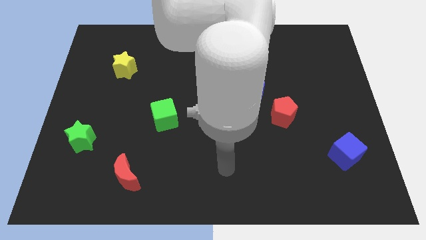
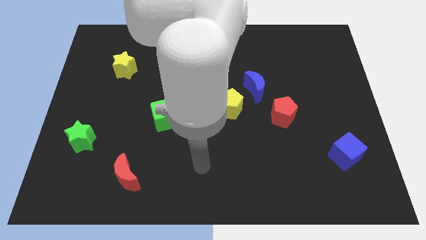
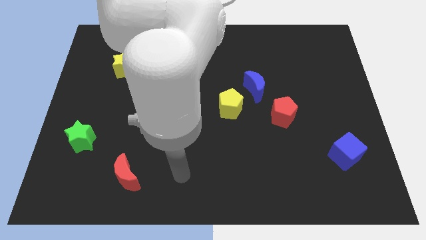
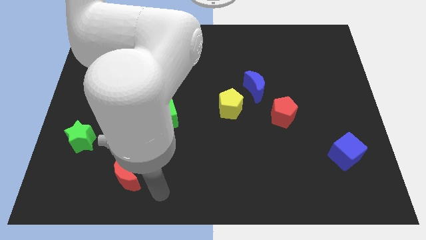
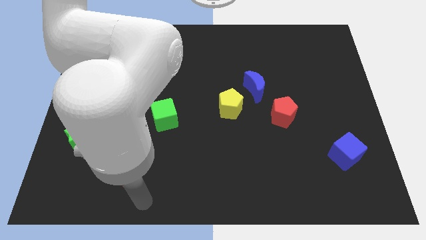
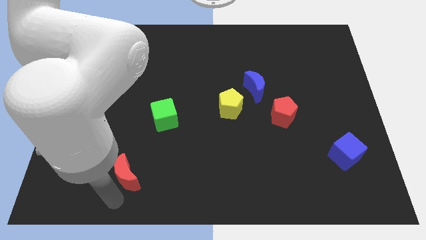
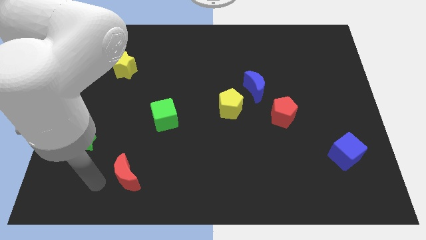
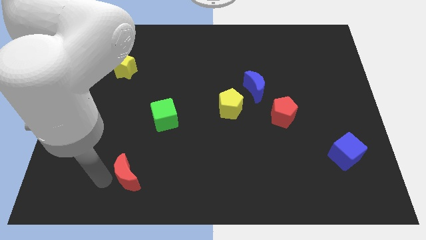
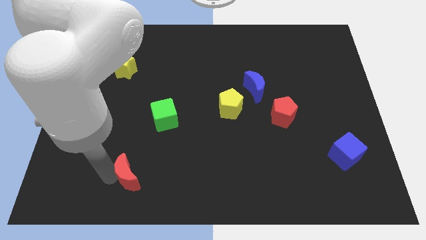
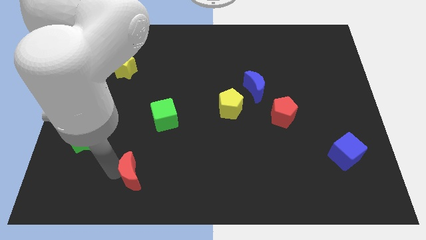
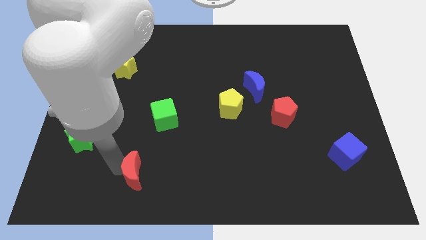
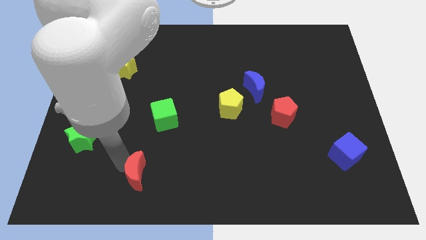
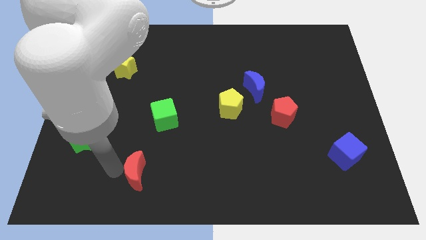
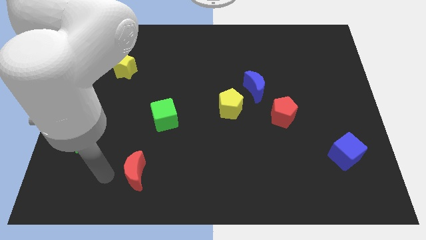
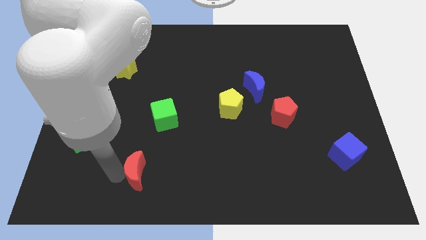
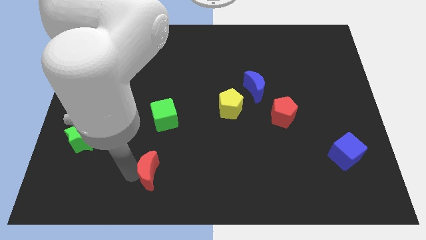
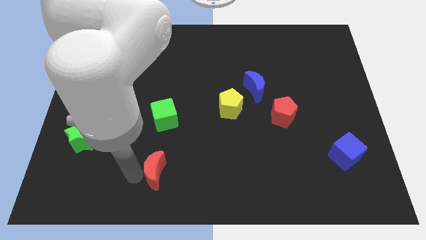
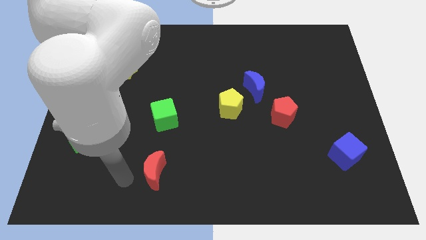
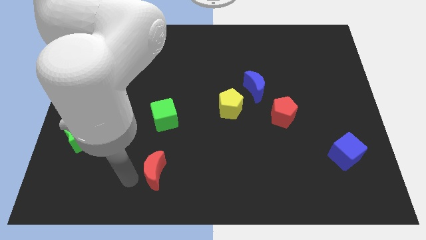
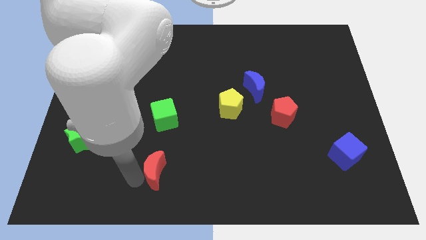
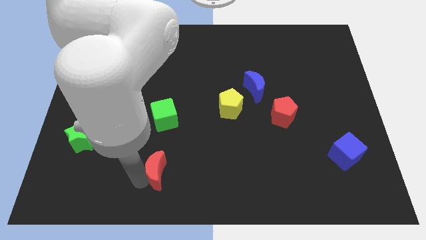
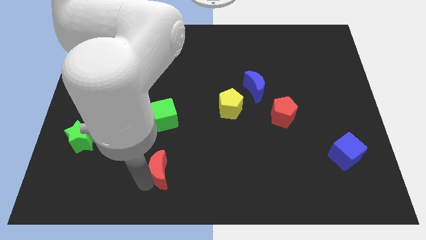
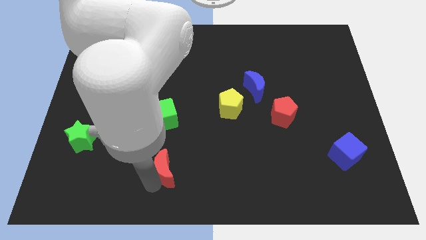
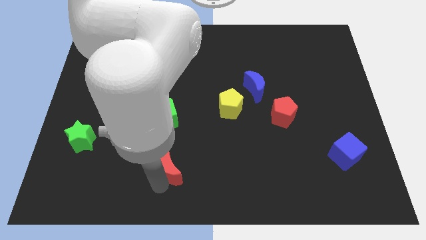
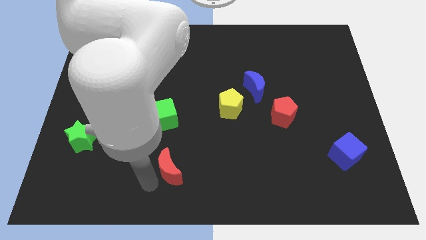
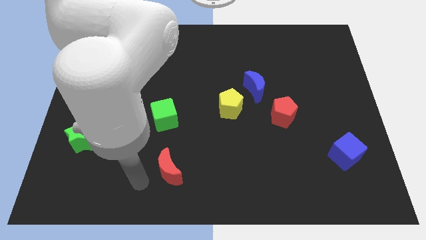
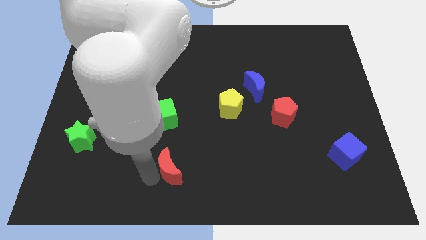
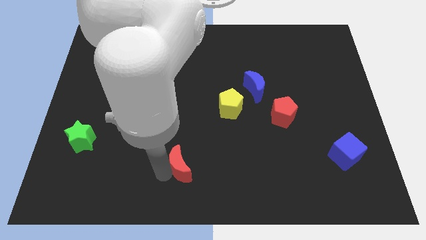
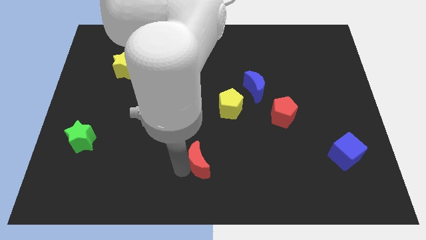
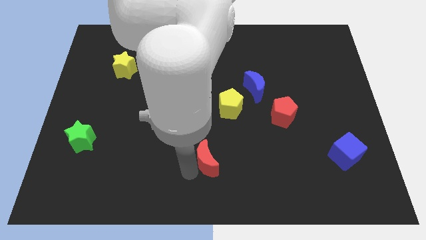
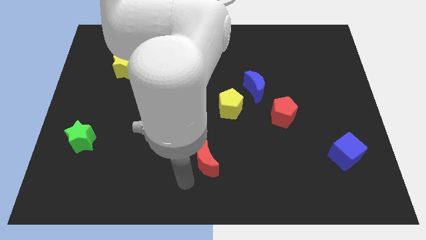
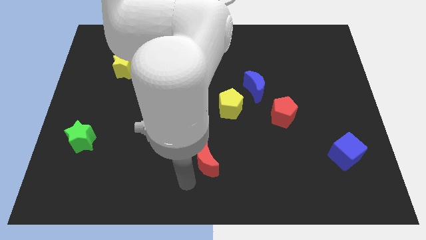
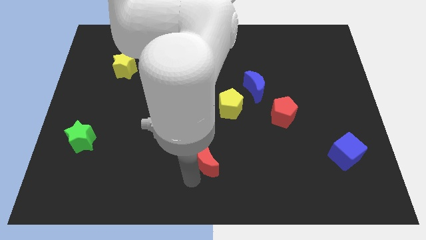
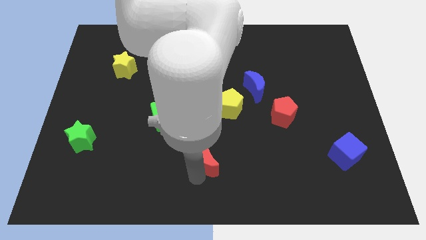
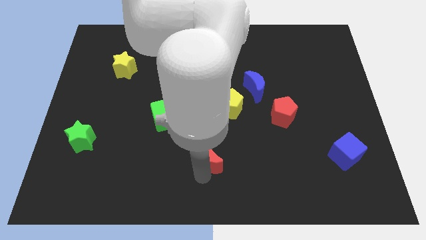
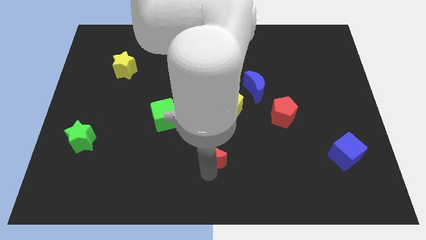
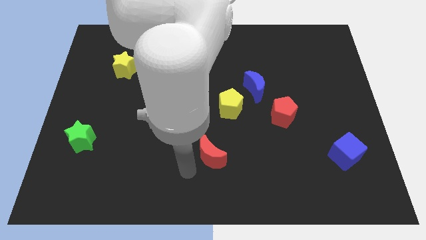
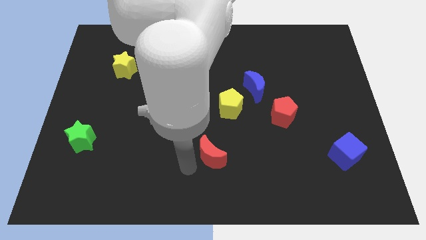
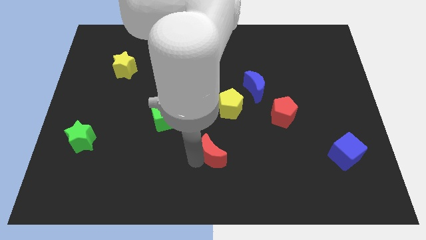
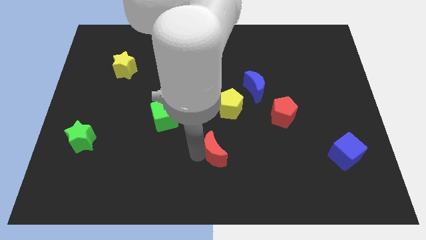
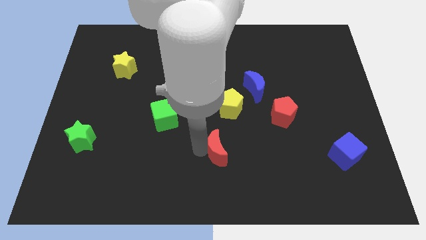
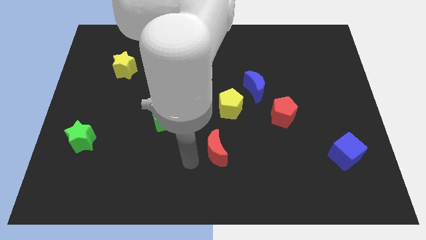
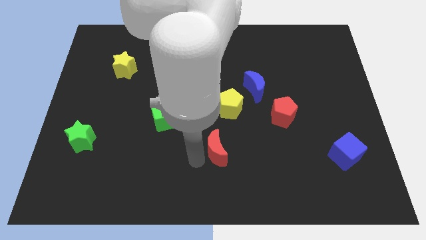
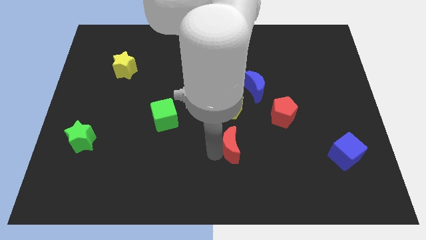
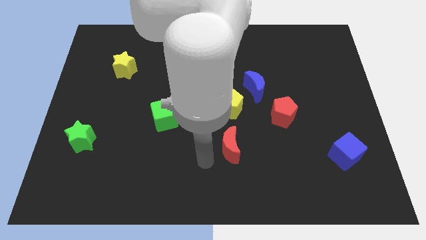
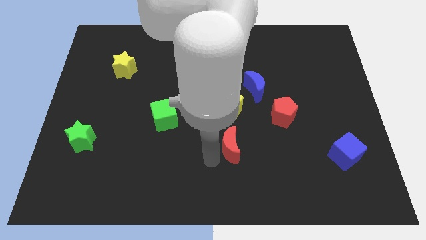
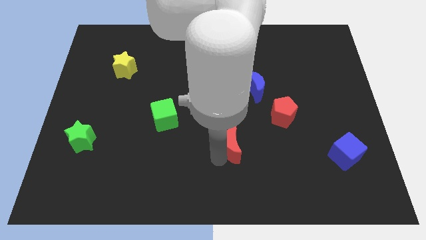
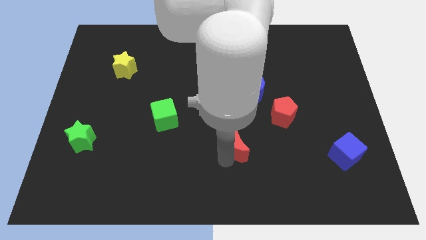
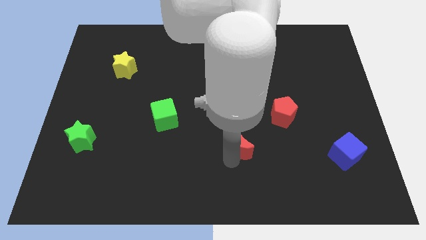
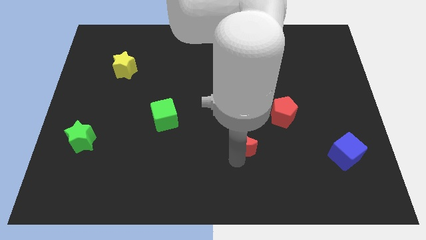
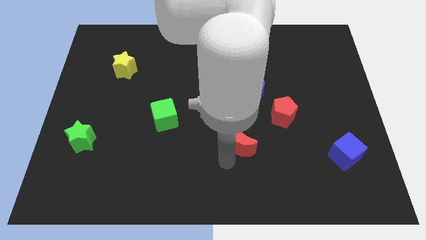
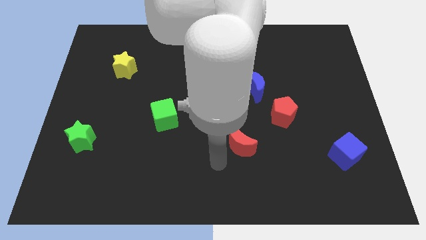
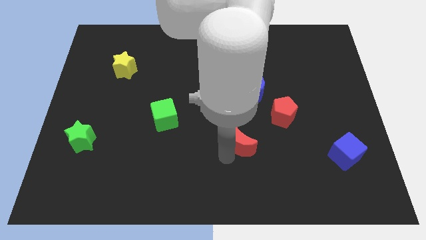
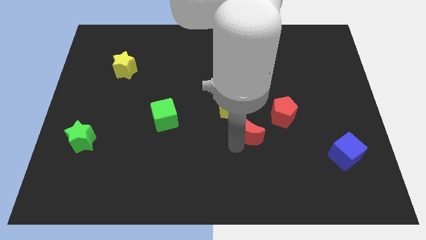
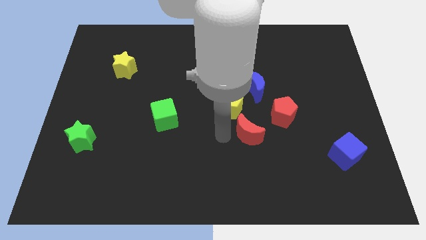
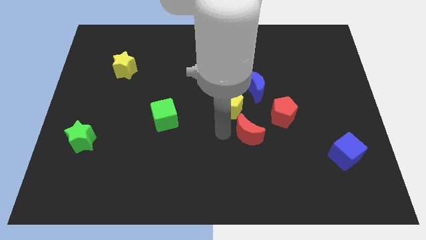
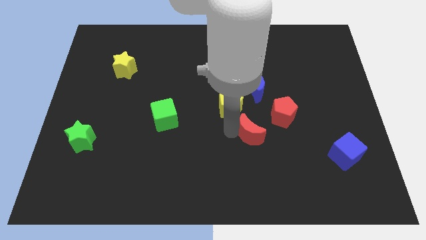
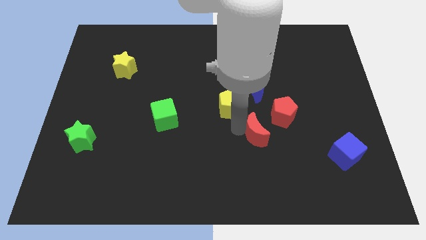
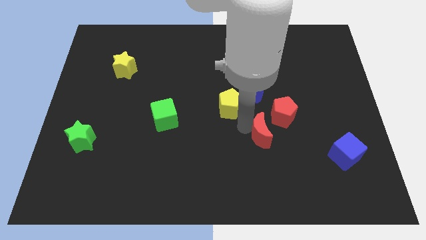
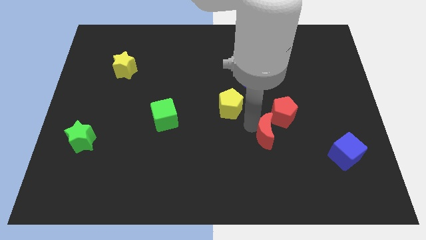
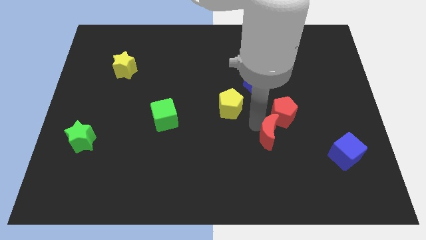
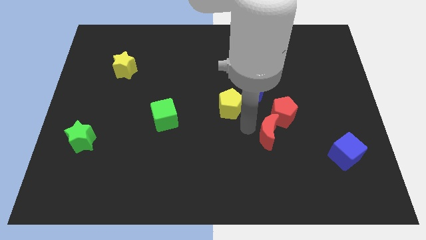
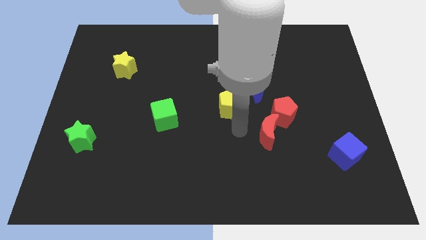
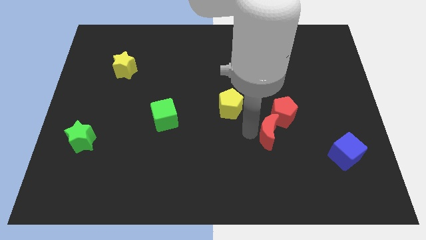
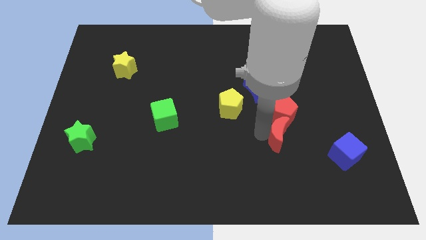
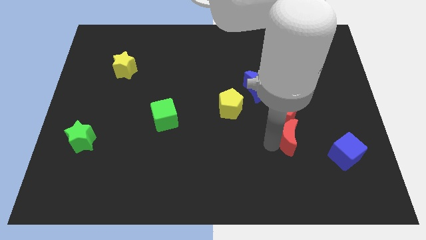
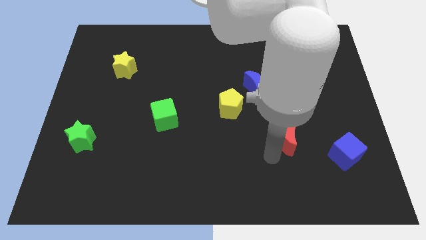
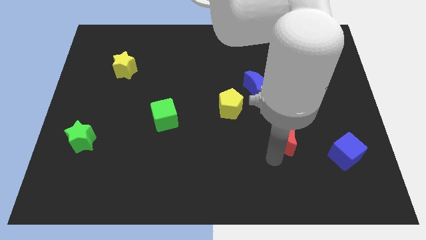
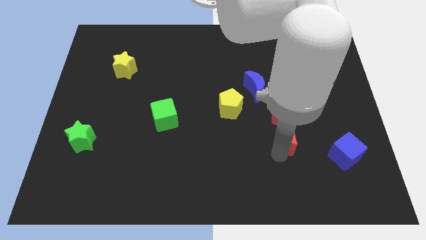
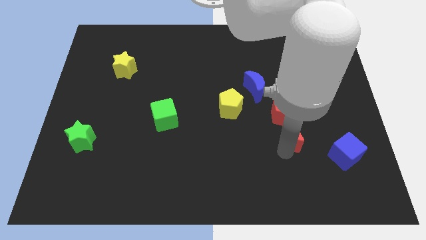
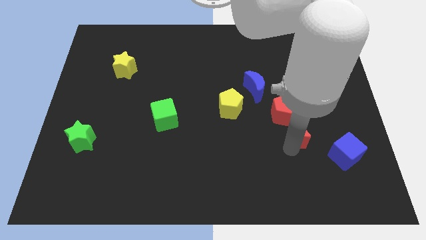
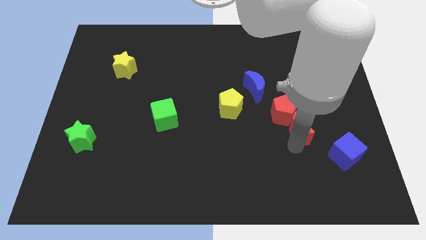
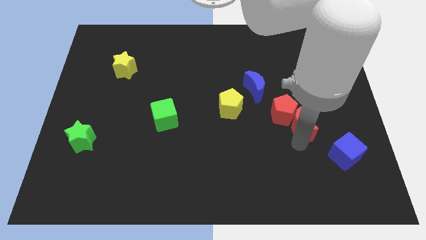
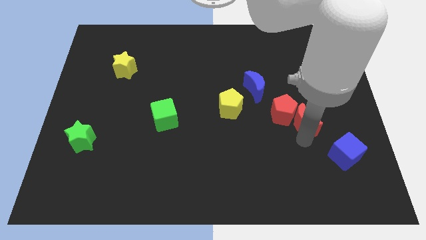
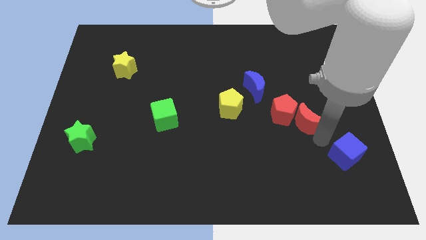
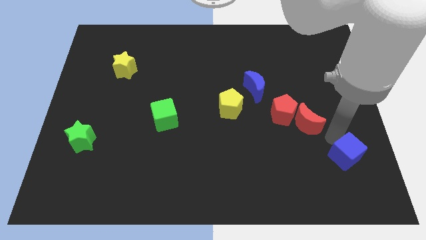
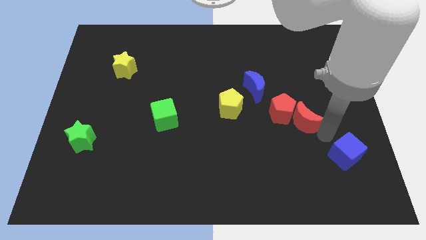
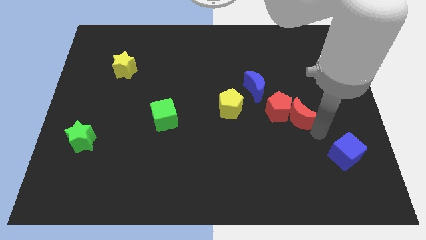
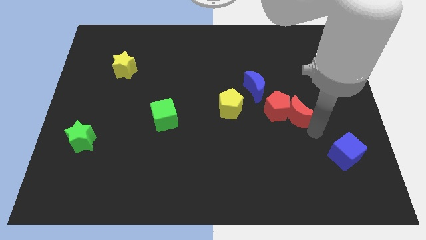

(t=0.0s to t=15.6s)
slide the red moon just right of the yellow pentagon

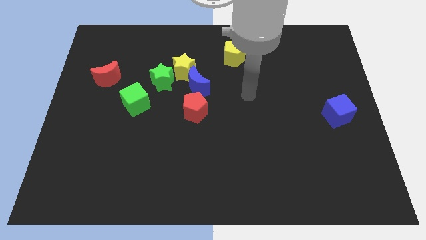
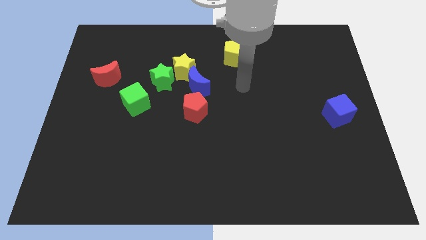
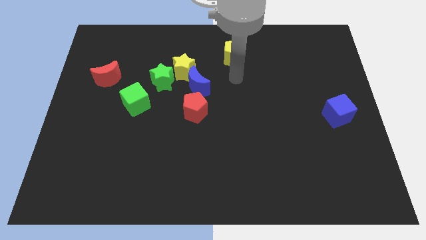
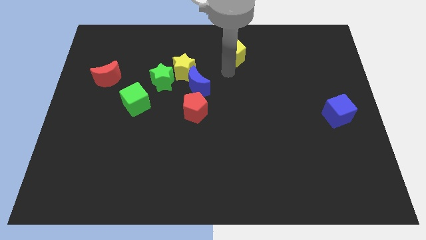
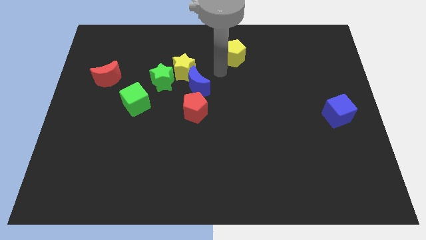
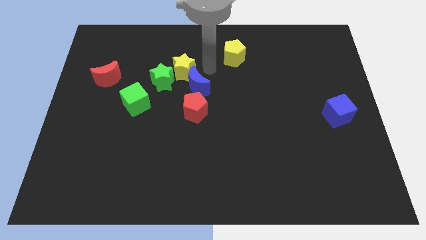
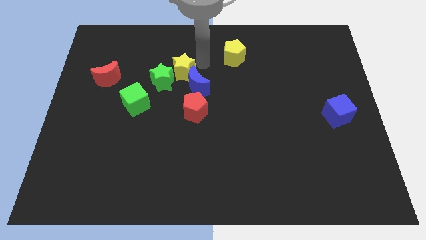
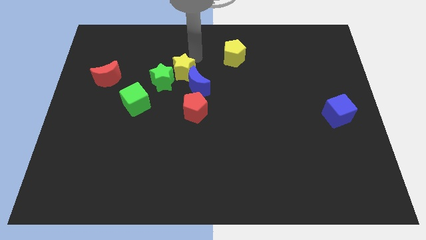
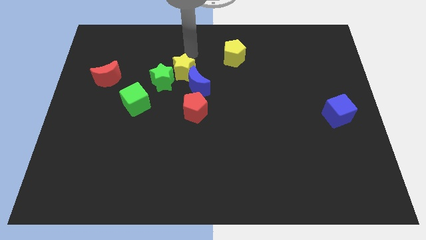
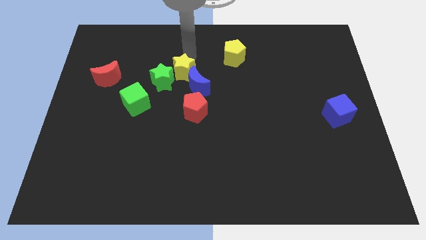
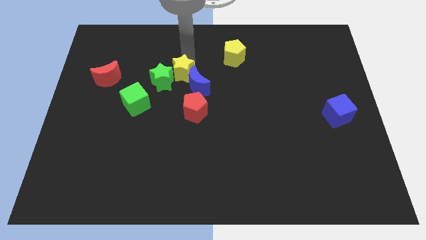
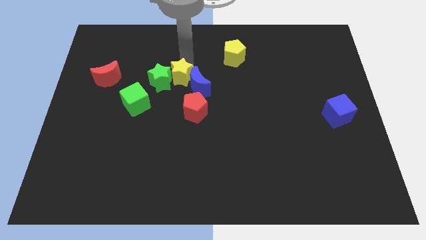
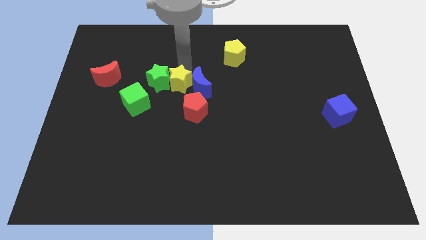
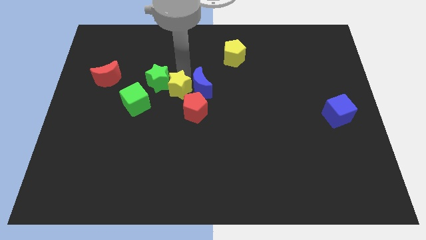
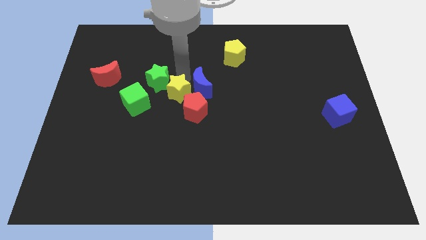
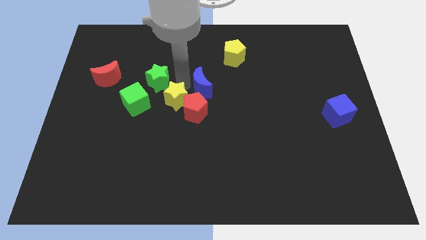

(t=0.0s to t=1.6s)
slide the yellow star to the bottom of the green star
